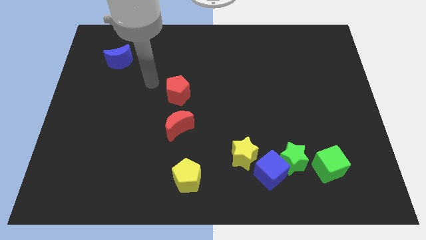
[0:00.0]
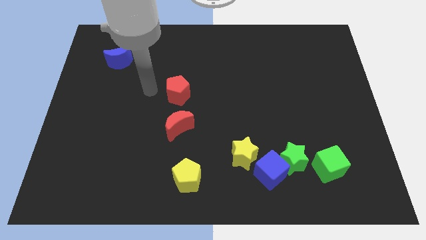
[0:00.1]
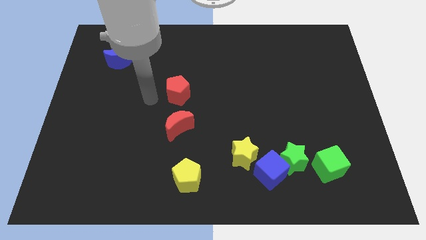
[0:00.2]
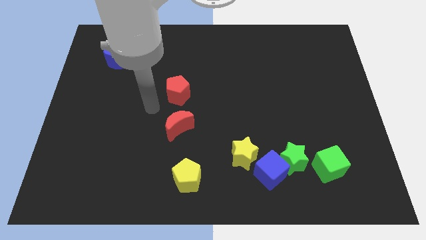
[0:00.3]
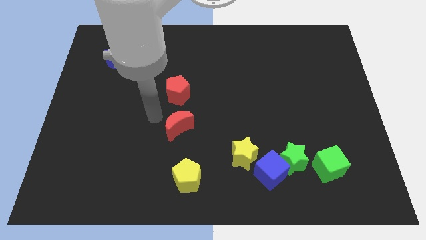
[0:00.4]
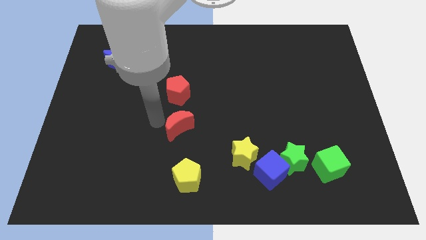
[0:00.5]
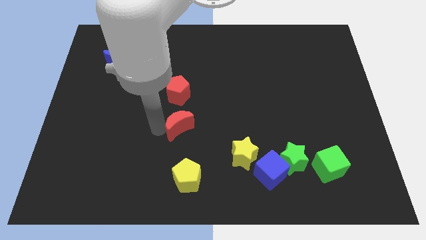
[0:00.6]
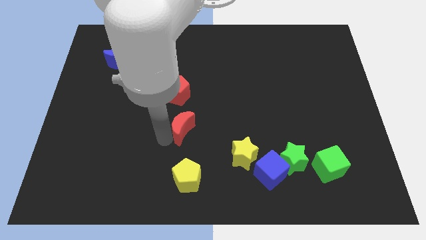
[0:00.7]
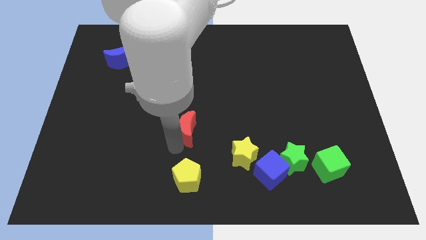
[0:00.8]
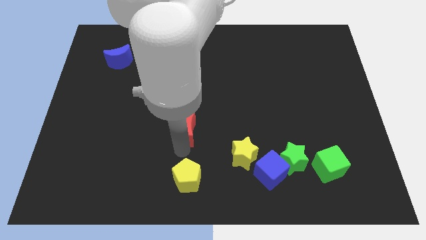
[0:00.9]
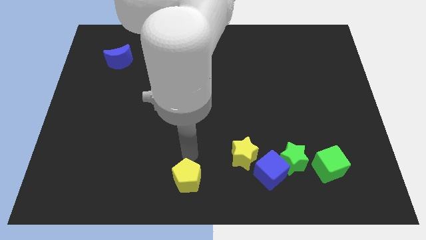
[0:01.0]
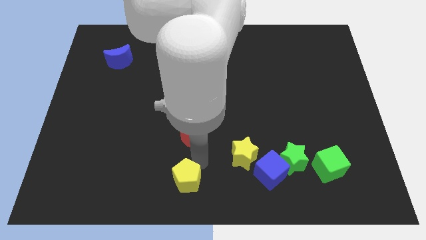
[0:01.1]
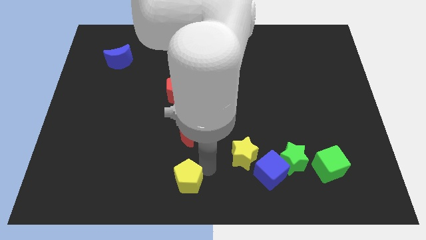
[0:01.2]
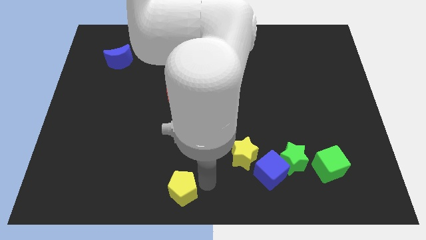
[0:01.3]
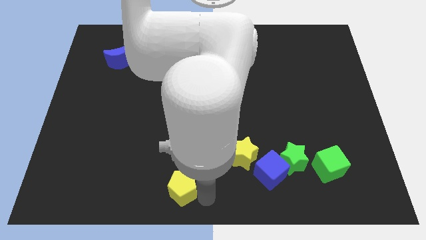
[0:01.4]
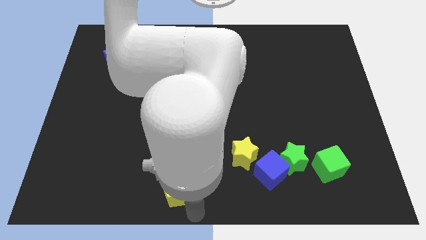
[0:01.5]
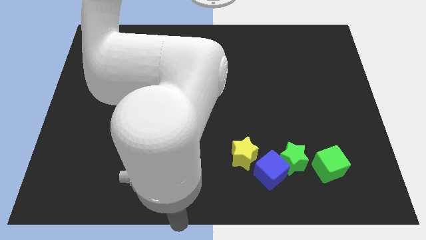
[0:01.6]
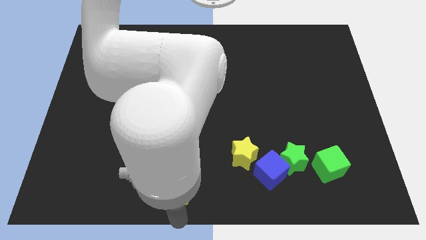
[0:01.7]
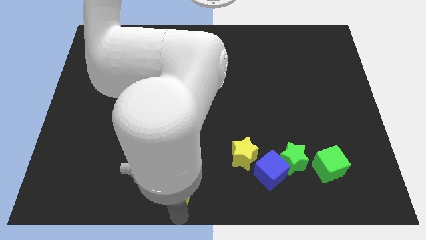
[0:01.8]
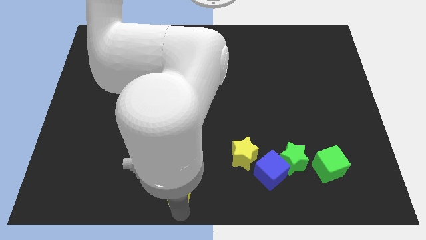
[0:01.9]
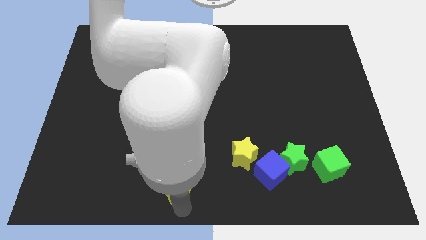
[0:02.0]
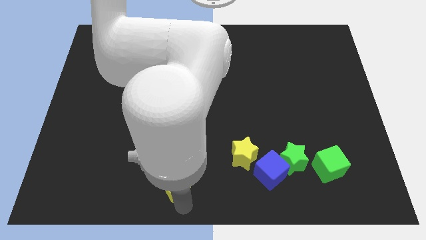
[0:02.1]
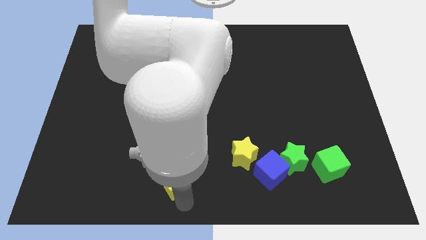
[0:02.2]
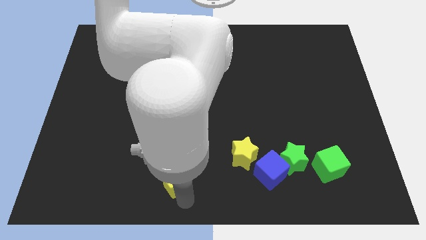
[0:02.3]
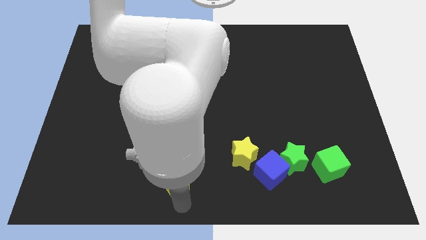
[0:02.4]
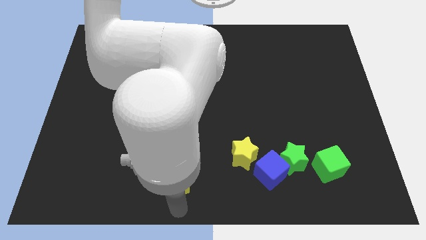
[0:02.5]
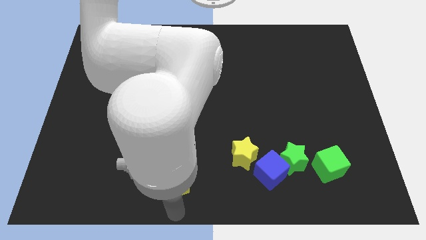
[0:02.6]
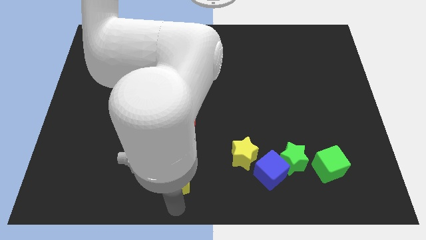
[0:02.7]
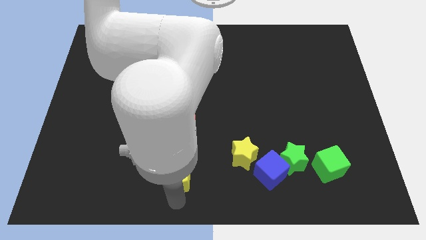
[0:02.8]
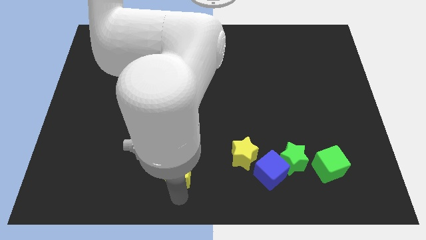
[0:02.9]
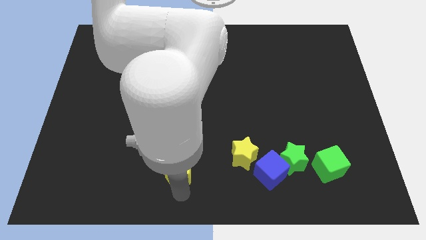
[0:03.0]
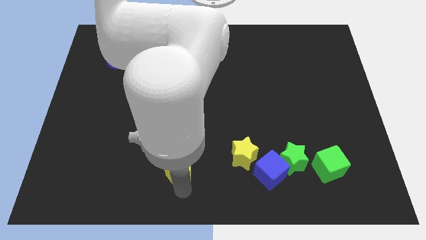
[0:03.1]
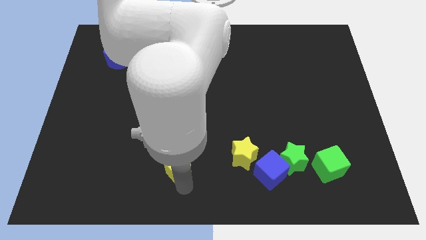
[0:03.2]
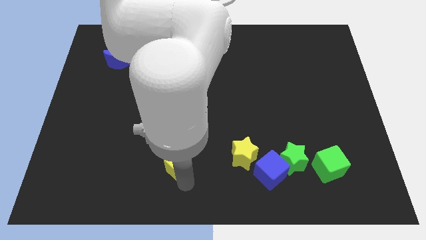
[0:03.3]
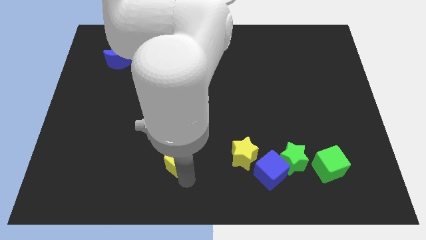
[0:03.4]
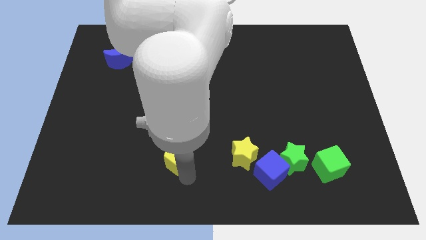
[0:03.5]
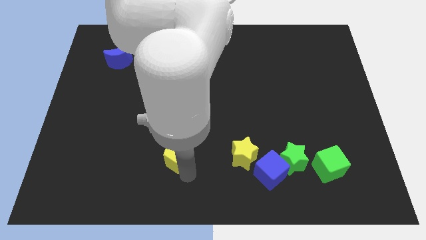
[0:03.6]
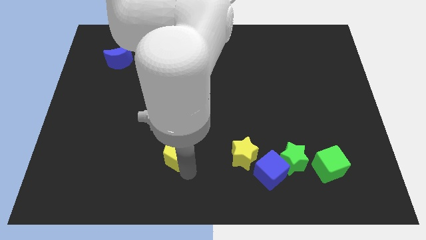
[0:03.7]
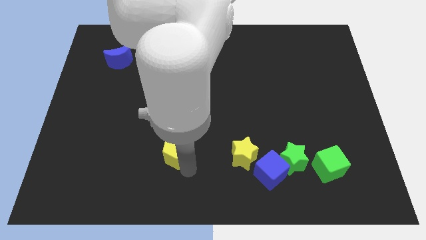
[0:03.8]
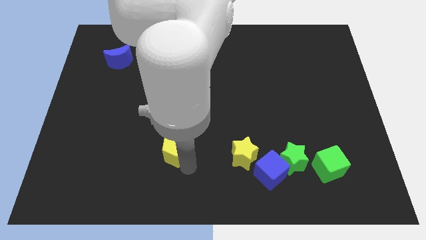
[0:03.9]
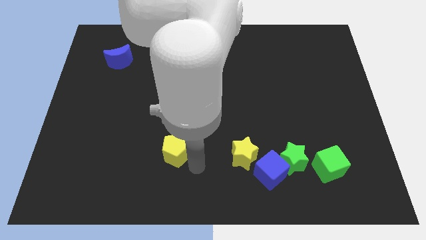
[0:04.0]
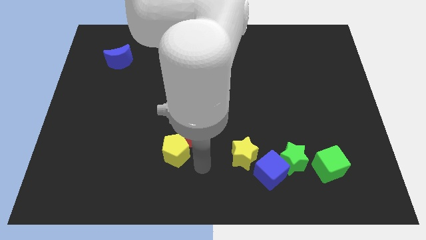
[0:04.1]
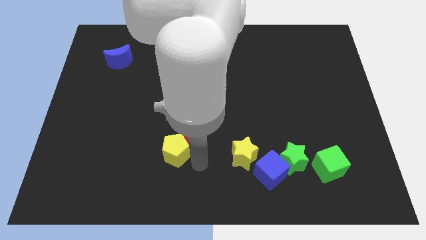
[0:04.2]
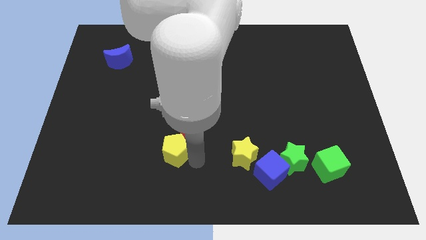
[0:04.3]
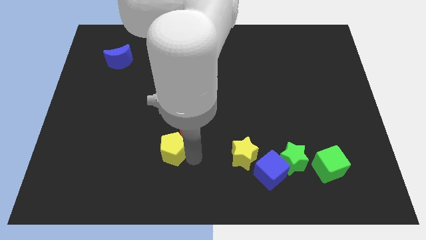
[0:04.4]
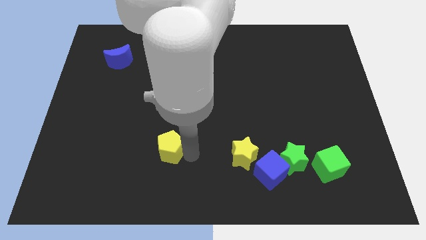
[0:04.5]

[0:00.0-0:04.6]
slide the yellow pentagon upwards and to the left slightly

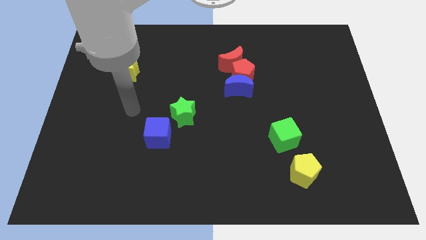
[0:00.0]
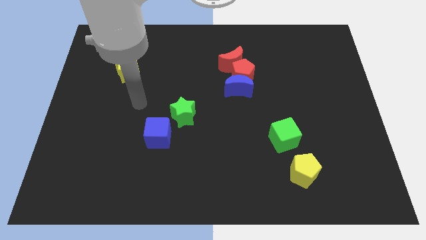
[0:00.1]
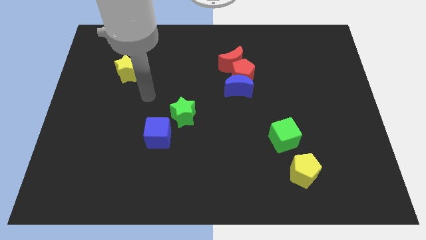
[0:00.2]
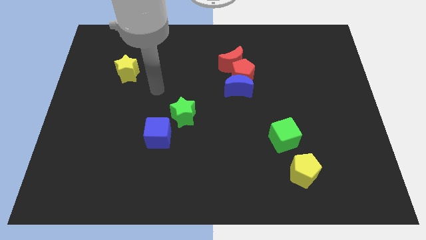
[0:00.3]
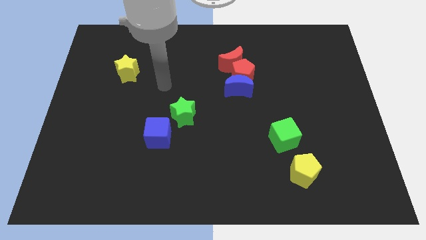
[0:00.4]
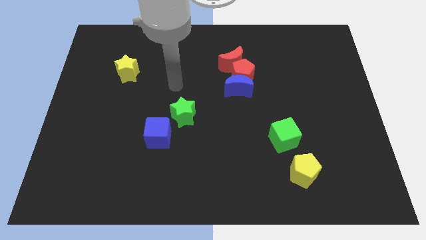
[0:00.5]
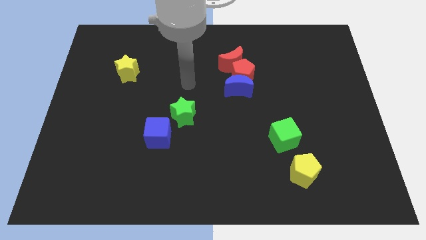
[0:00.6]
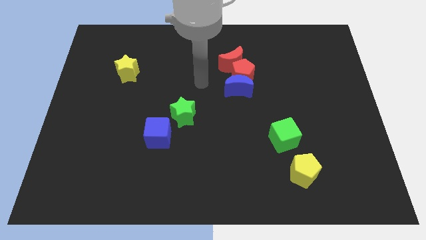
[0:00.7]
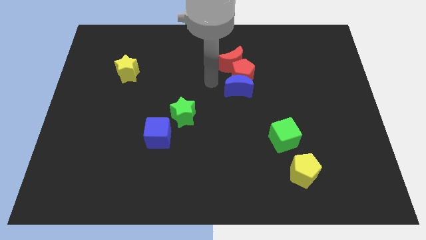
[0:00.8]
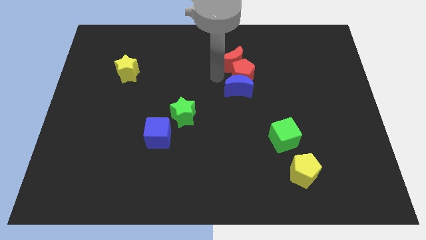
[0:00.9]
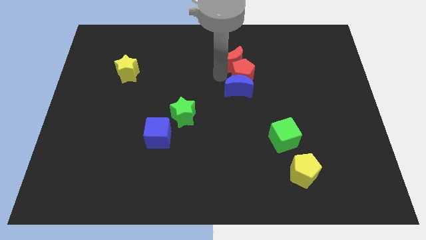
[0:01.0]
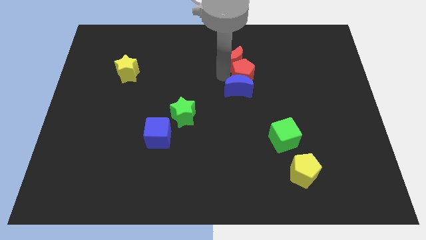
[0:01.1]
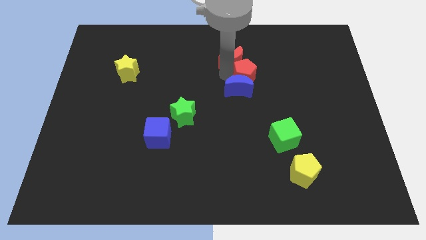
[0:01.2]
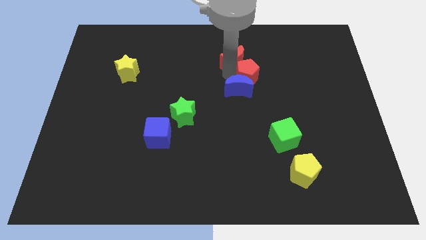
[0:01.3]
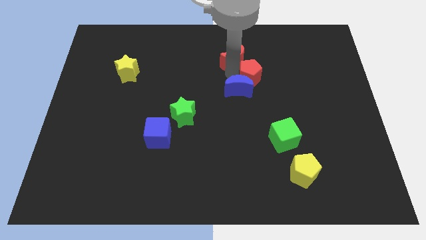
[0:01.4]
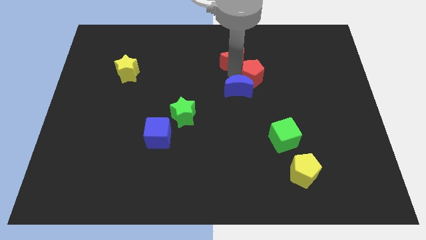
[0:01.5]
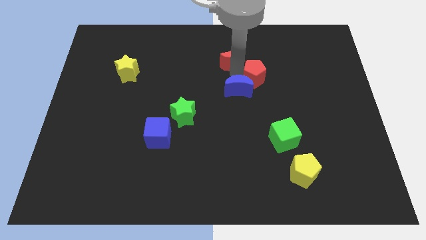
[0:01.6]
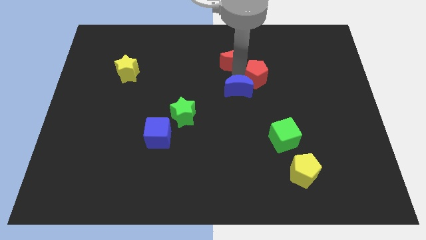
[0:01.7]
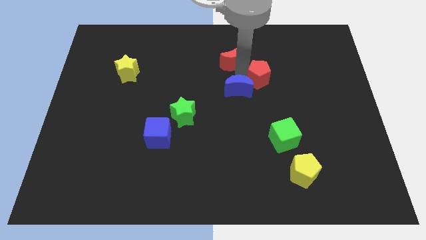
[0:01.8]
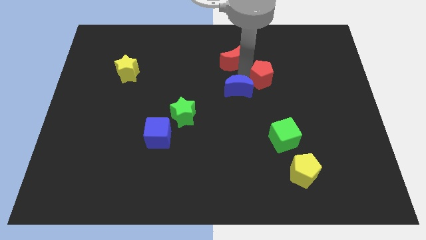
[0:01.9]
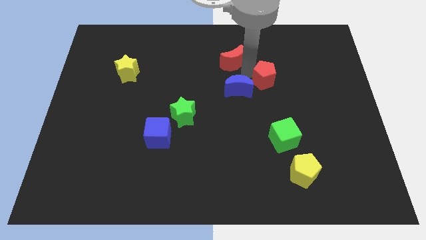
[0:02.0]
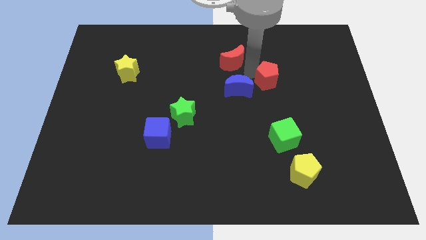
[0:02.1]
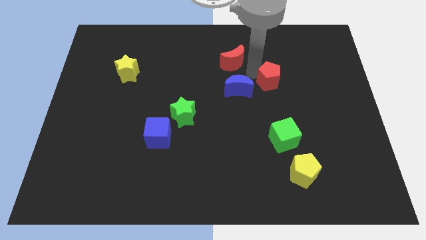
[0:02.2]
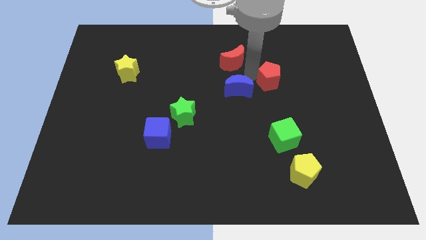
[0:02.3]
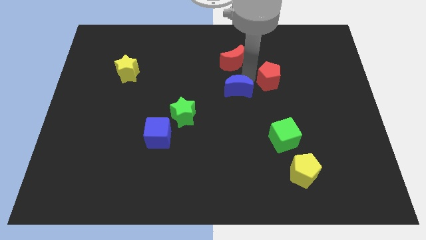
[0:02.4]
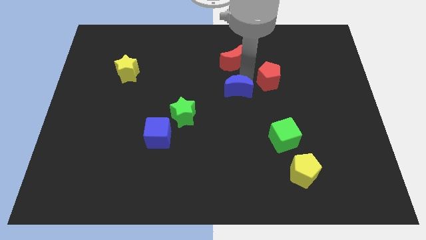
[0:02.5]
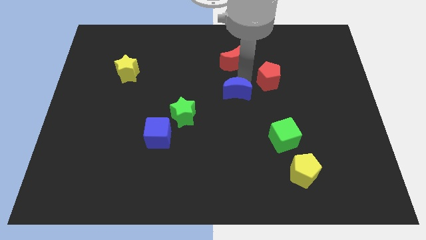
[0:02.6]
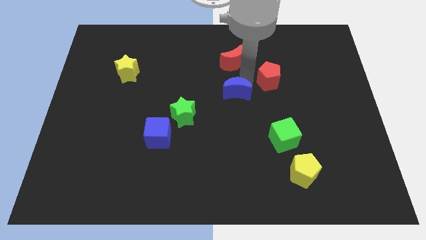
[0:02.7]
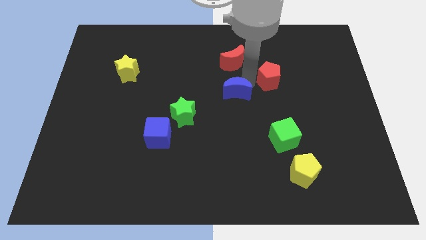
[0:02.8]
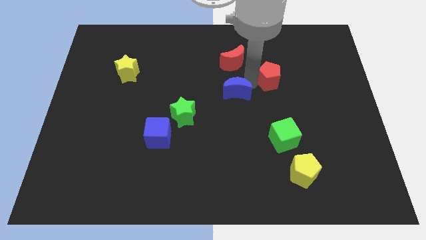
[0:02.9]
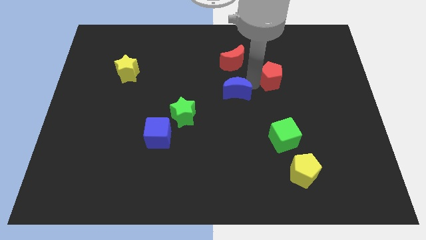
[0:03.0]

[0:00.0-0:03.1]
move the red pentagon slightly right

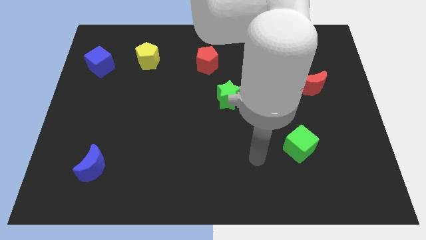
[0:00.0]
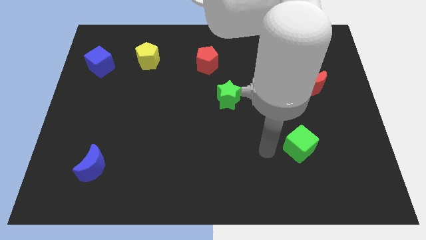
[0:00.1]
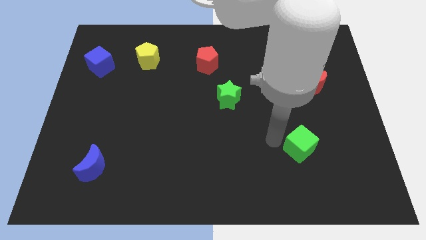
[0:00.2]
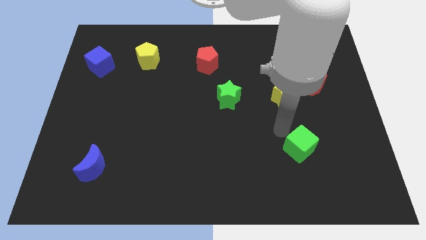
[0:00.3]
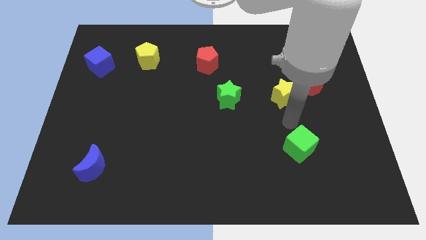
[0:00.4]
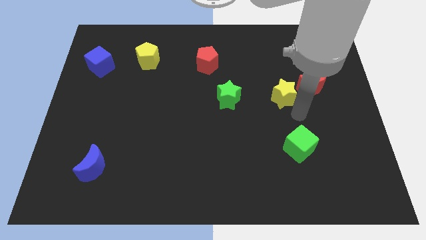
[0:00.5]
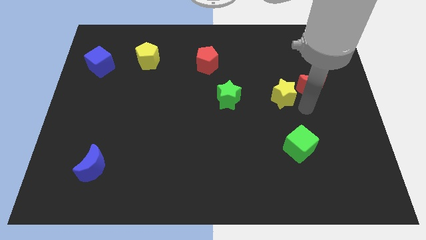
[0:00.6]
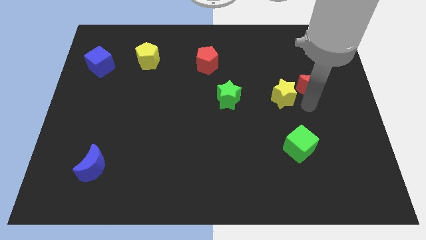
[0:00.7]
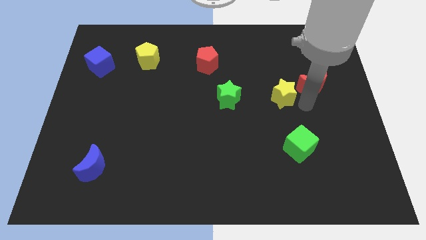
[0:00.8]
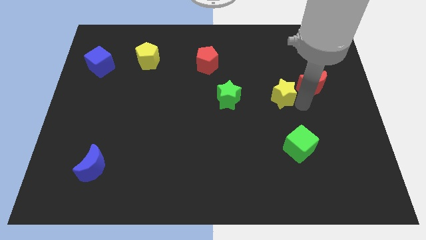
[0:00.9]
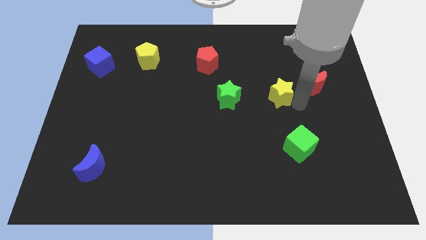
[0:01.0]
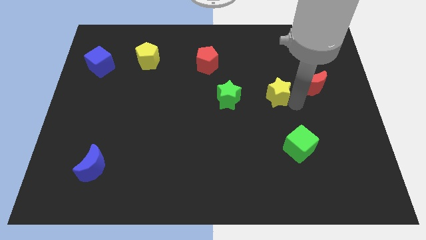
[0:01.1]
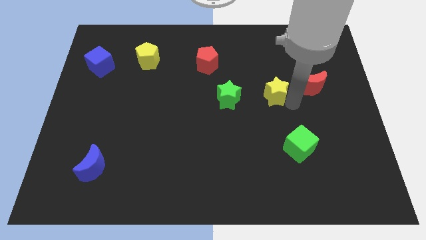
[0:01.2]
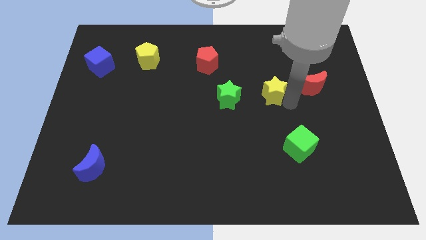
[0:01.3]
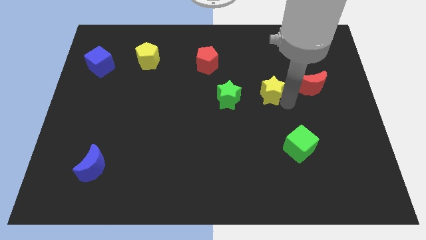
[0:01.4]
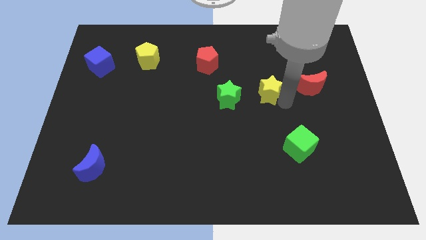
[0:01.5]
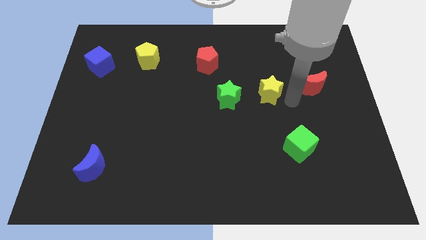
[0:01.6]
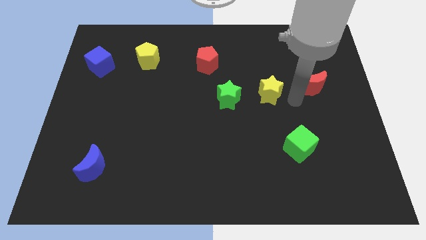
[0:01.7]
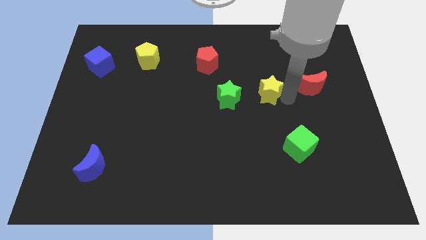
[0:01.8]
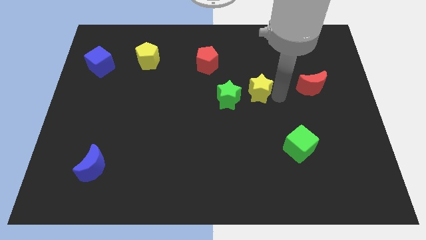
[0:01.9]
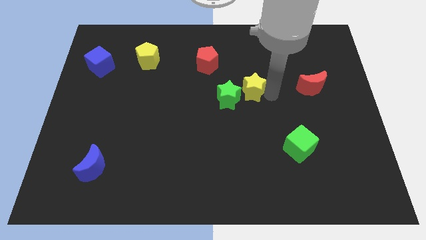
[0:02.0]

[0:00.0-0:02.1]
move the yellow star to the left a little
